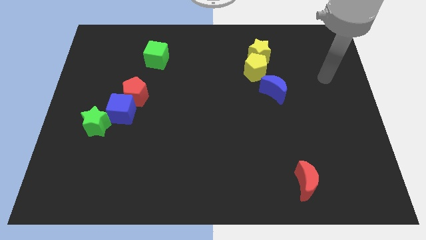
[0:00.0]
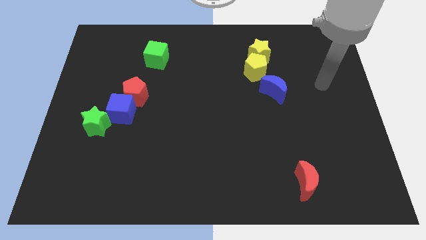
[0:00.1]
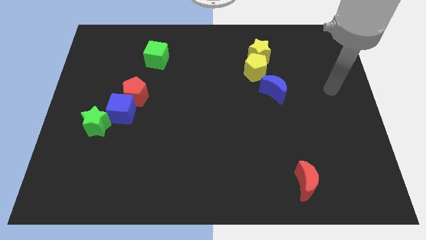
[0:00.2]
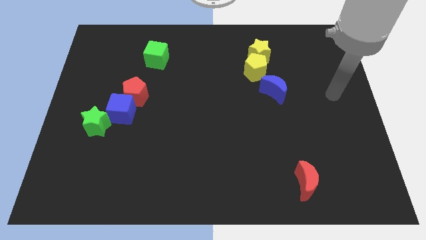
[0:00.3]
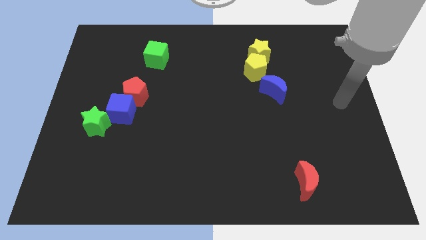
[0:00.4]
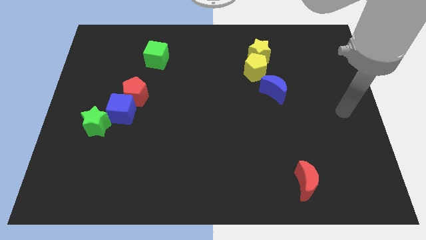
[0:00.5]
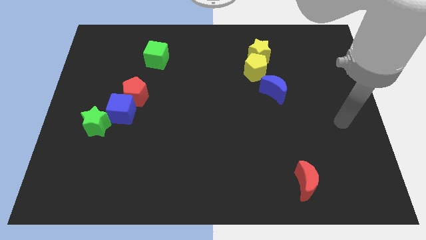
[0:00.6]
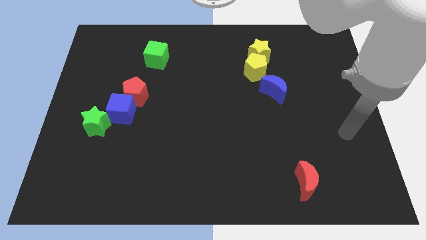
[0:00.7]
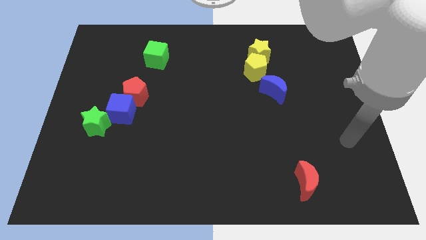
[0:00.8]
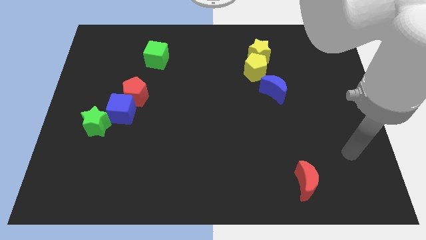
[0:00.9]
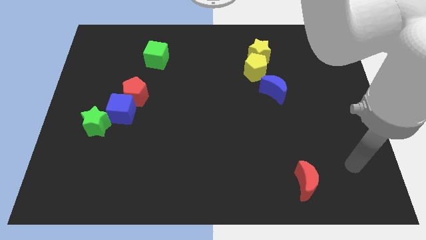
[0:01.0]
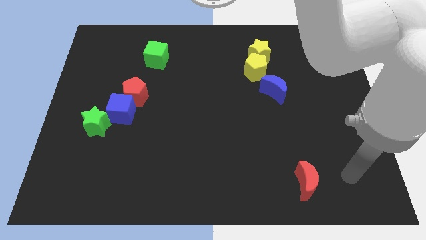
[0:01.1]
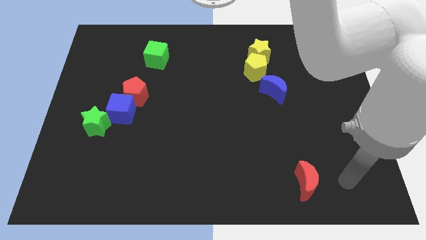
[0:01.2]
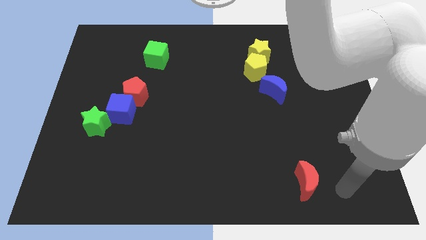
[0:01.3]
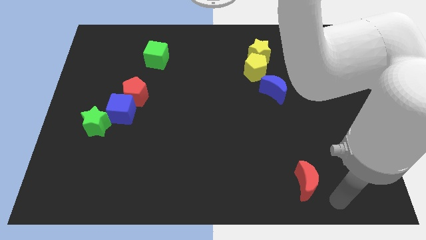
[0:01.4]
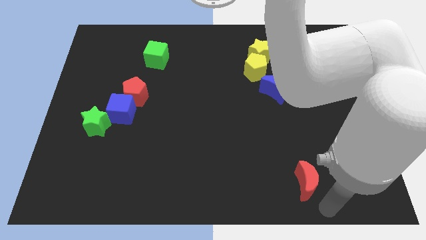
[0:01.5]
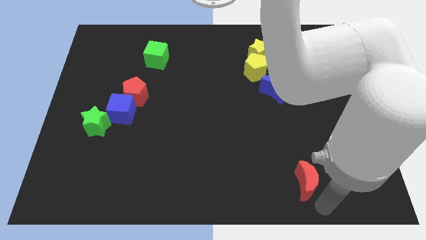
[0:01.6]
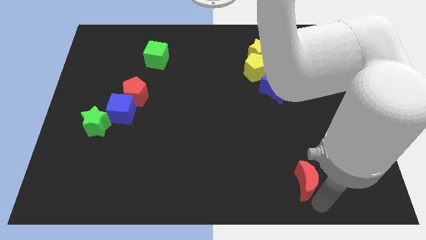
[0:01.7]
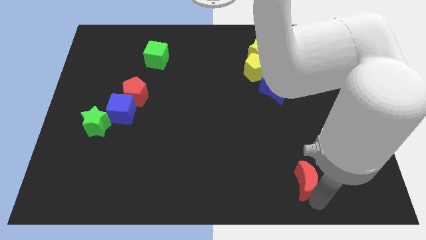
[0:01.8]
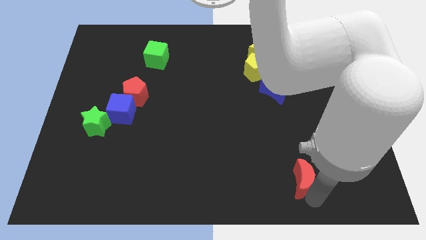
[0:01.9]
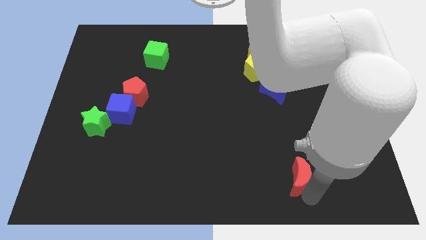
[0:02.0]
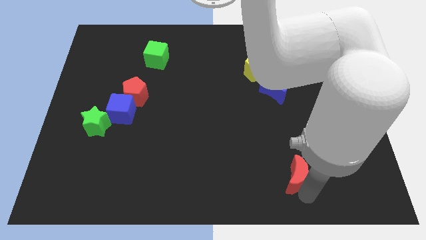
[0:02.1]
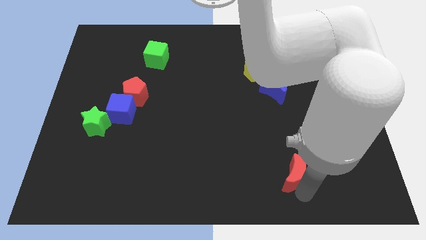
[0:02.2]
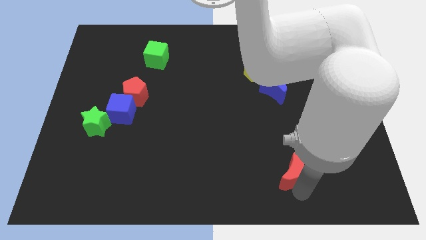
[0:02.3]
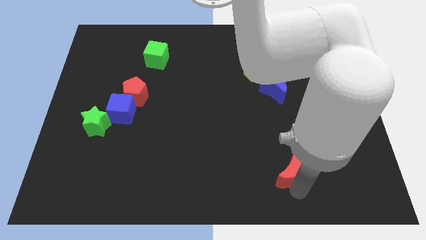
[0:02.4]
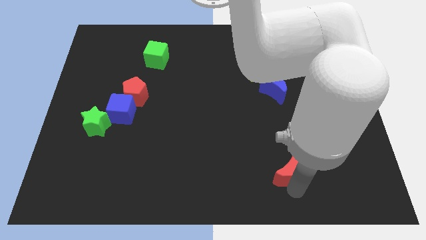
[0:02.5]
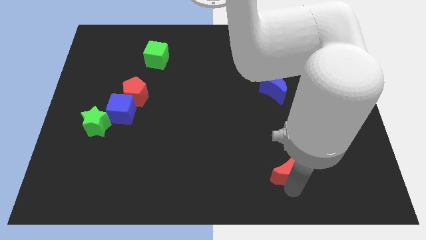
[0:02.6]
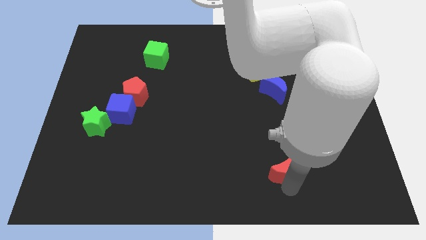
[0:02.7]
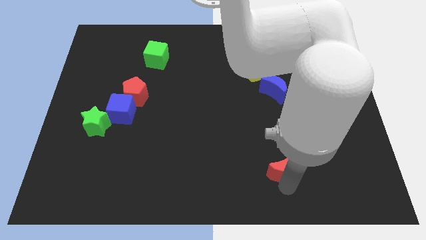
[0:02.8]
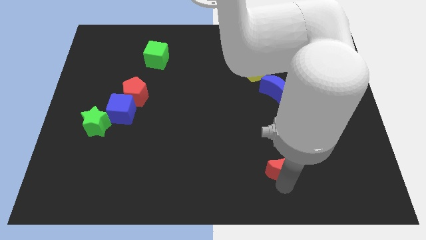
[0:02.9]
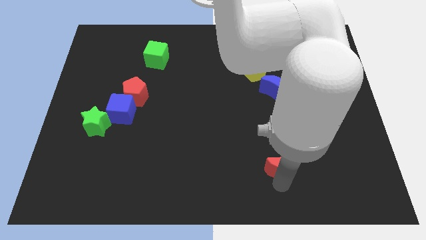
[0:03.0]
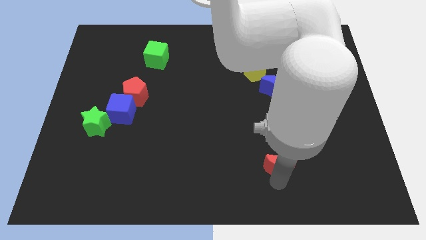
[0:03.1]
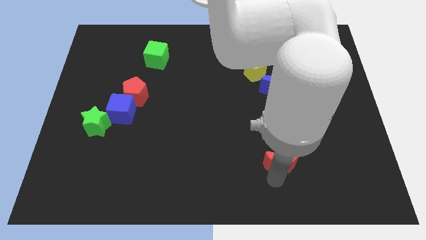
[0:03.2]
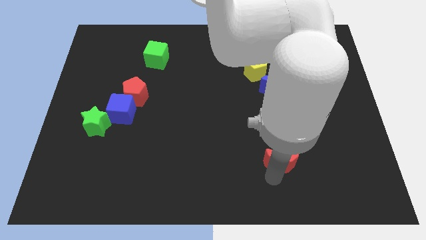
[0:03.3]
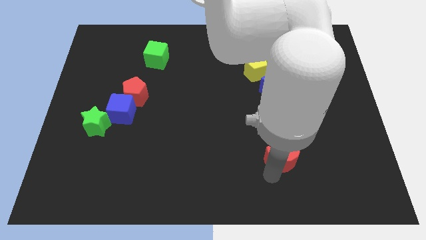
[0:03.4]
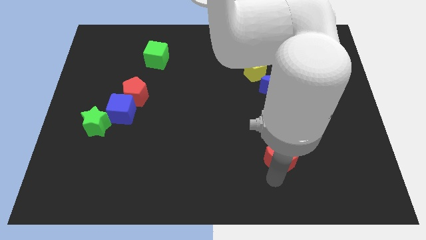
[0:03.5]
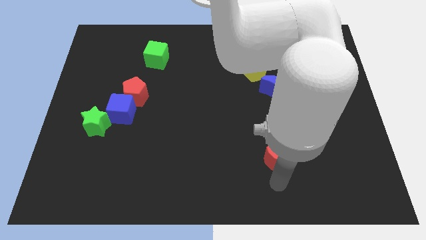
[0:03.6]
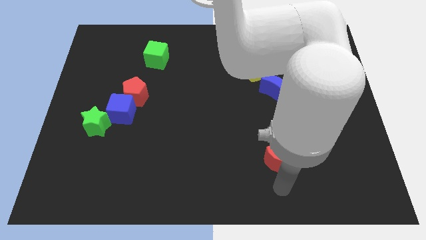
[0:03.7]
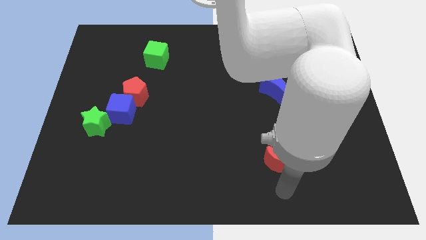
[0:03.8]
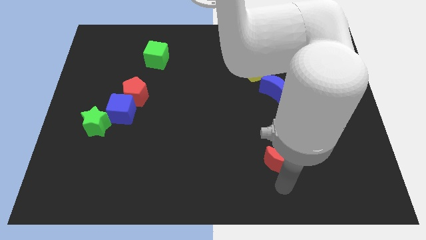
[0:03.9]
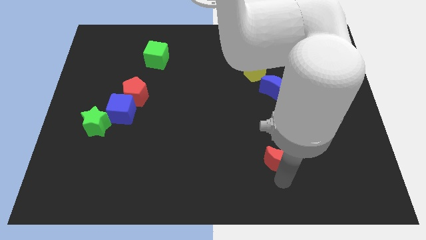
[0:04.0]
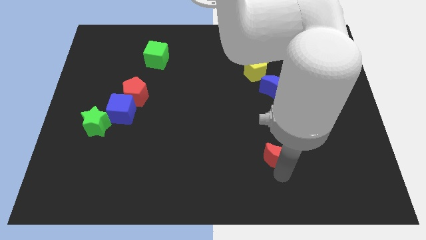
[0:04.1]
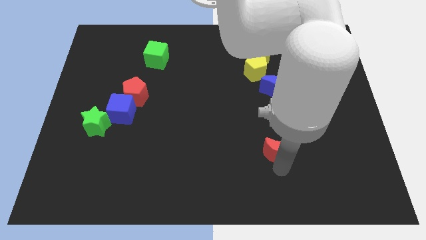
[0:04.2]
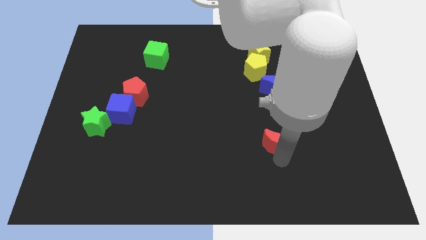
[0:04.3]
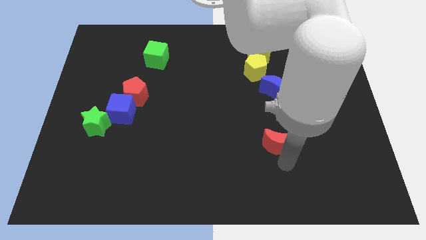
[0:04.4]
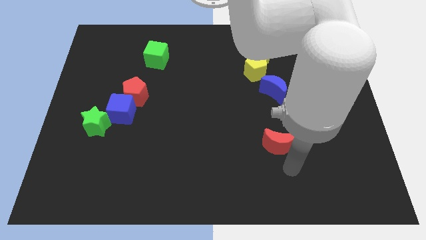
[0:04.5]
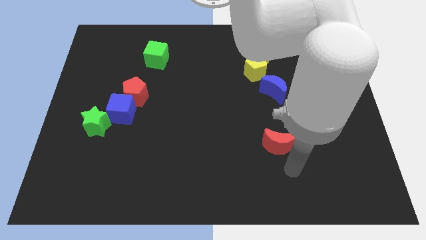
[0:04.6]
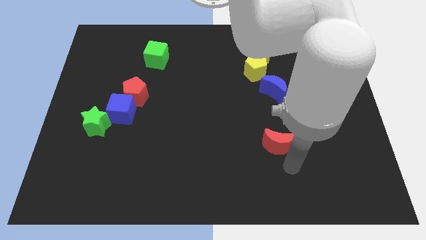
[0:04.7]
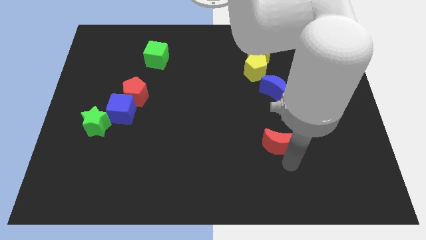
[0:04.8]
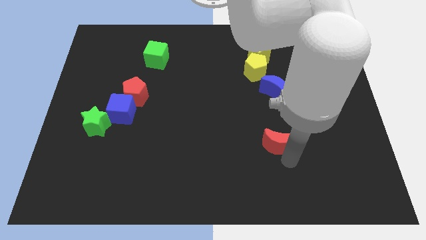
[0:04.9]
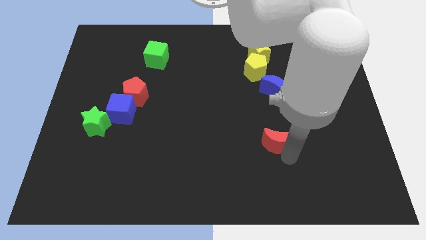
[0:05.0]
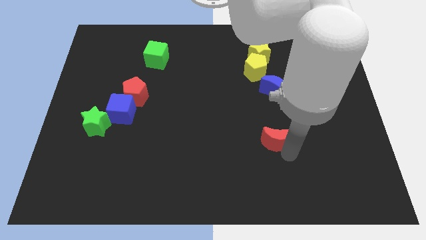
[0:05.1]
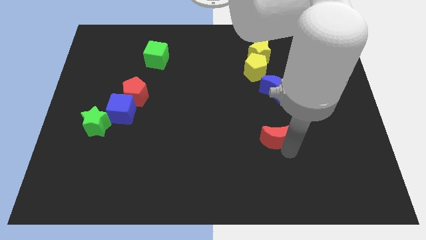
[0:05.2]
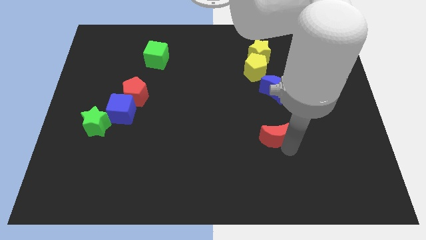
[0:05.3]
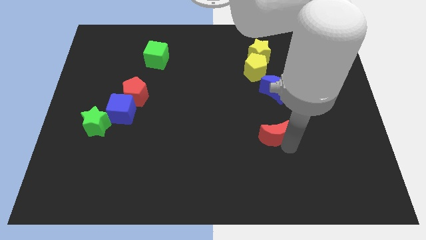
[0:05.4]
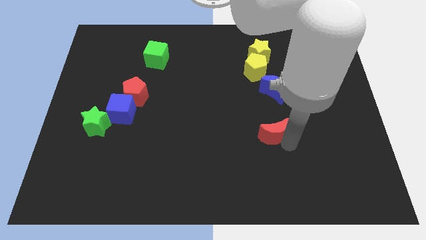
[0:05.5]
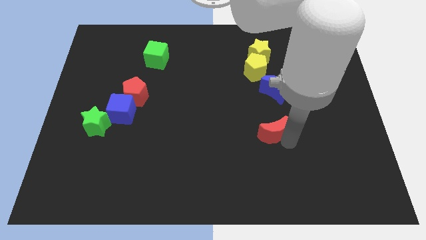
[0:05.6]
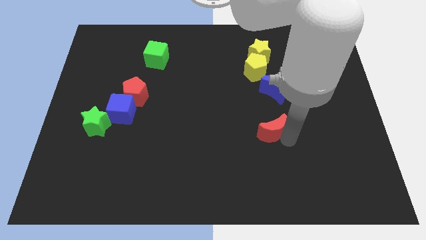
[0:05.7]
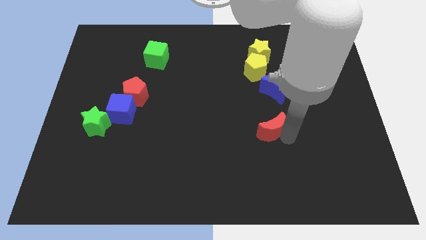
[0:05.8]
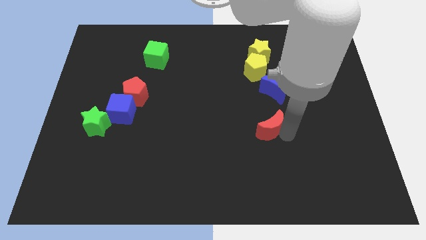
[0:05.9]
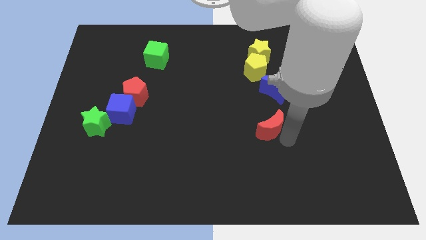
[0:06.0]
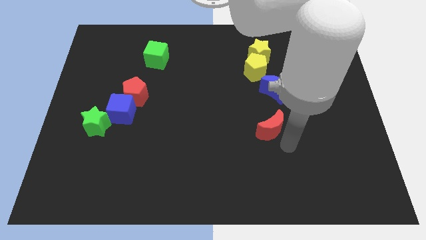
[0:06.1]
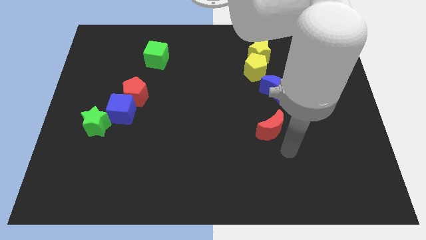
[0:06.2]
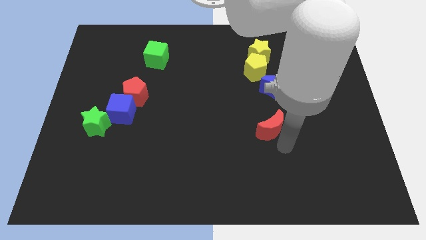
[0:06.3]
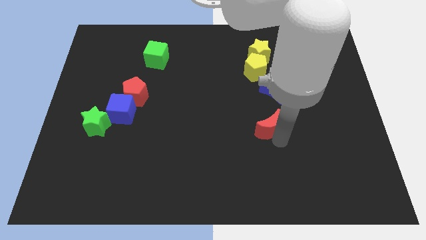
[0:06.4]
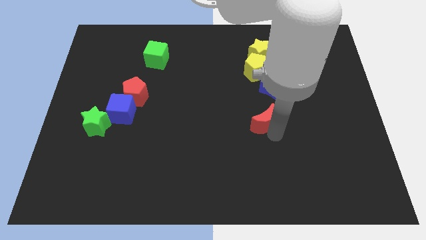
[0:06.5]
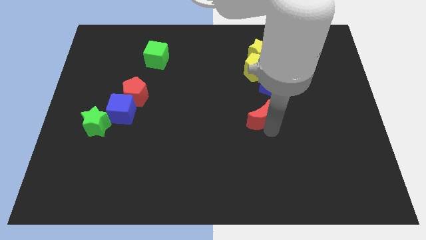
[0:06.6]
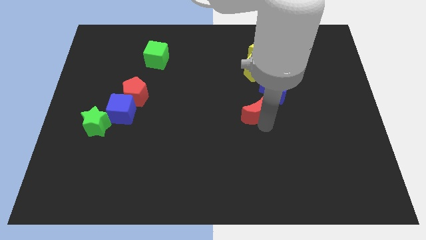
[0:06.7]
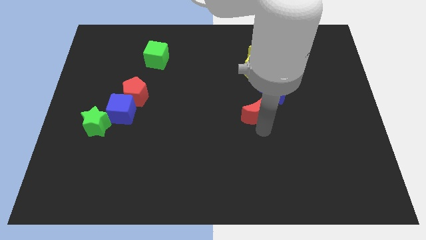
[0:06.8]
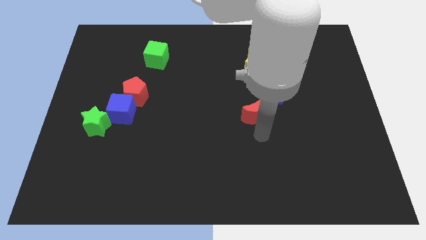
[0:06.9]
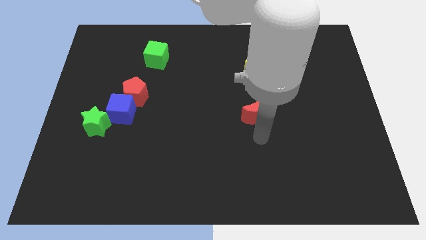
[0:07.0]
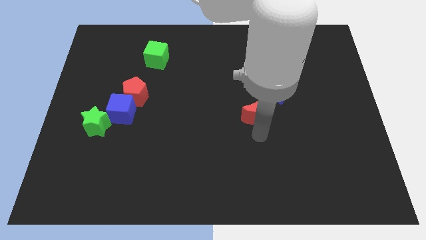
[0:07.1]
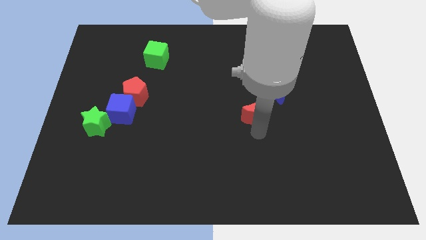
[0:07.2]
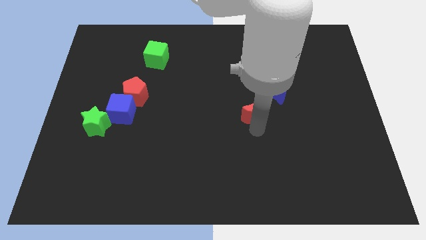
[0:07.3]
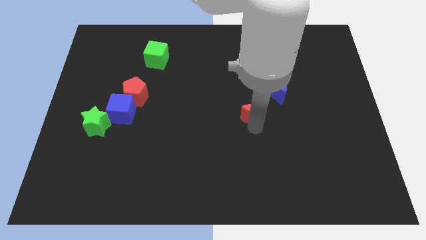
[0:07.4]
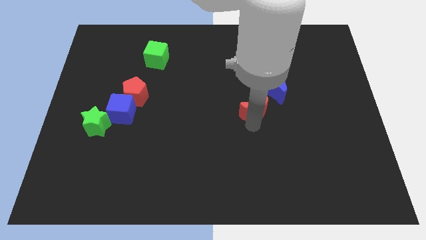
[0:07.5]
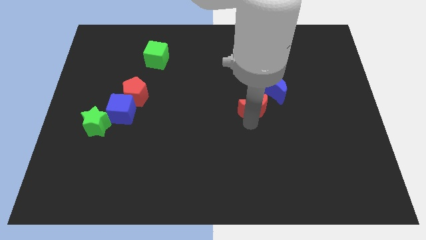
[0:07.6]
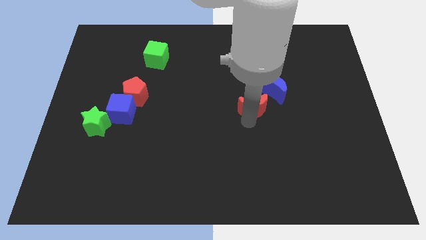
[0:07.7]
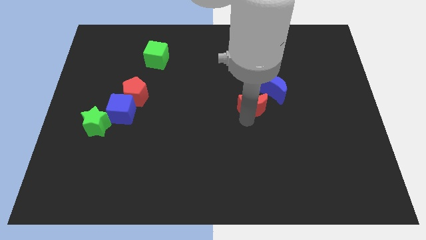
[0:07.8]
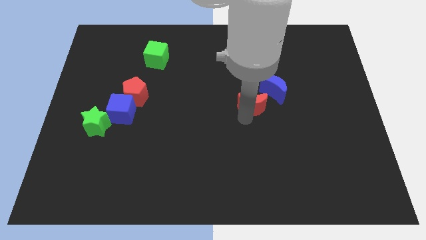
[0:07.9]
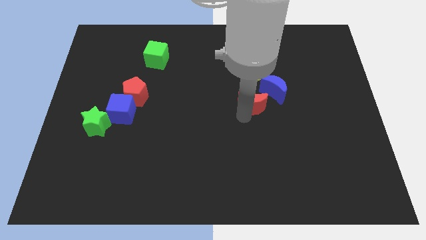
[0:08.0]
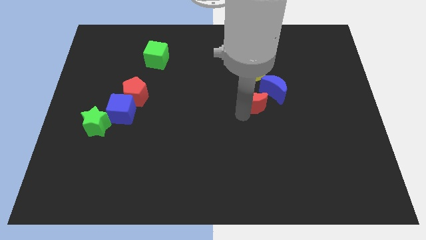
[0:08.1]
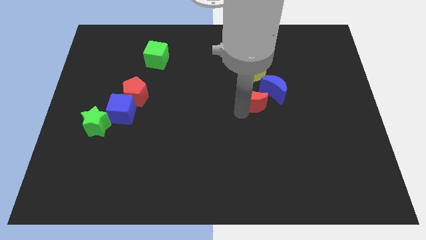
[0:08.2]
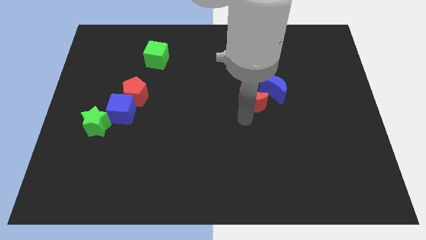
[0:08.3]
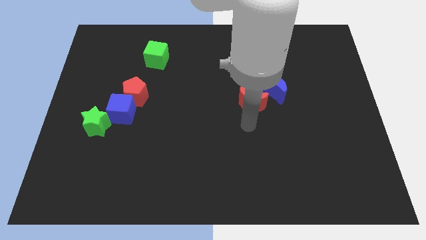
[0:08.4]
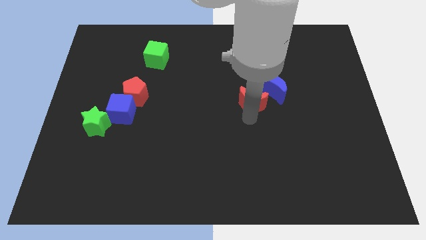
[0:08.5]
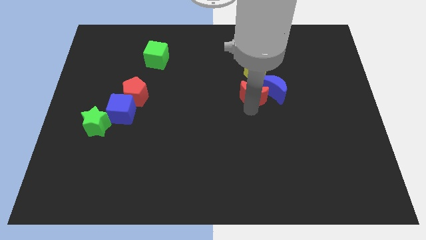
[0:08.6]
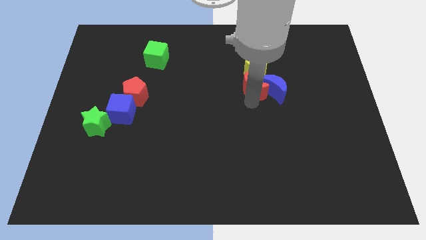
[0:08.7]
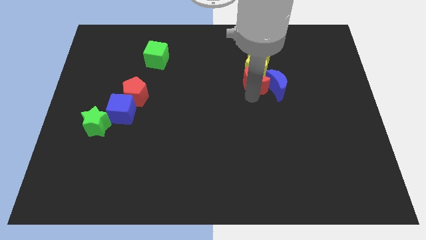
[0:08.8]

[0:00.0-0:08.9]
push the red moon to the yellow pentagon
